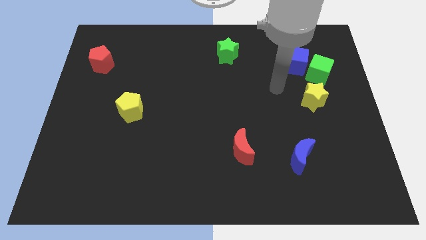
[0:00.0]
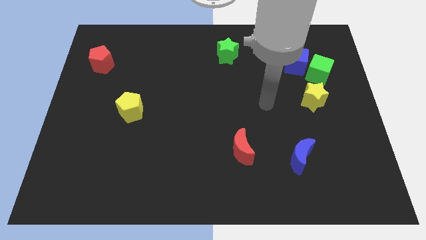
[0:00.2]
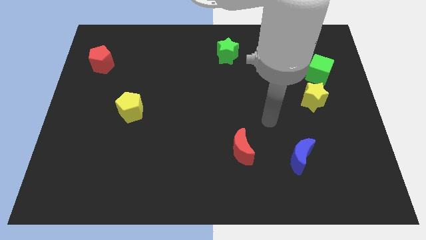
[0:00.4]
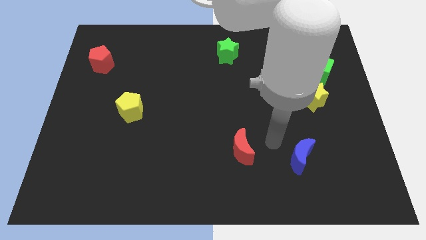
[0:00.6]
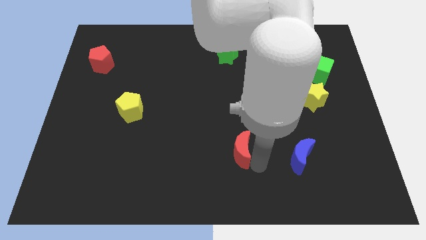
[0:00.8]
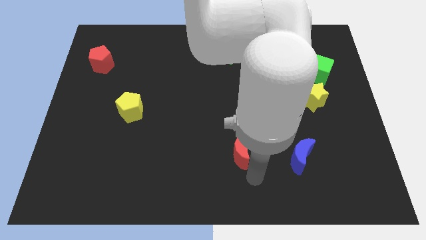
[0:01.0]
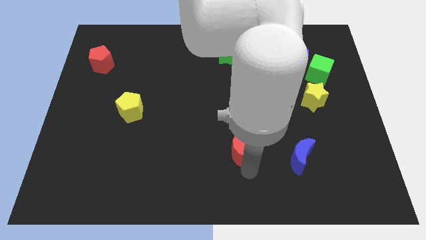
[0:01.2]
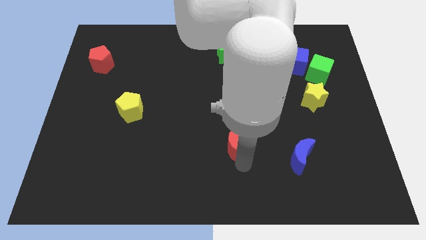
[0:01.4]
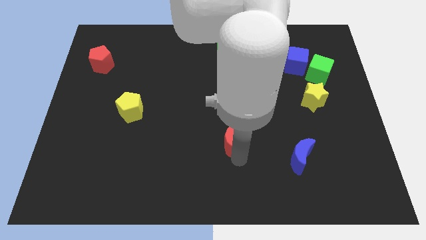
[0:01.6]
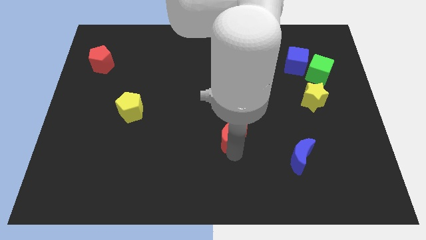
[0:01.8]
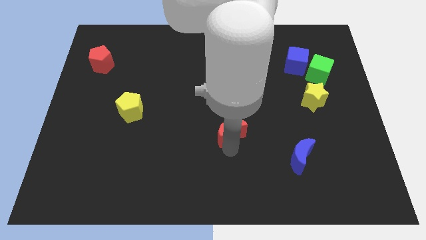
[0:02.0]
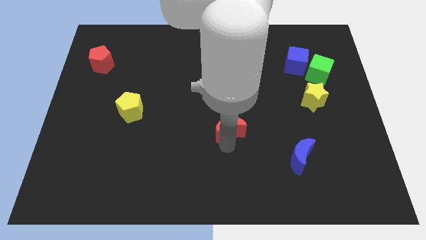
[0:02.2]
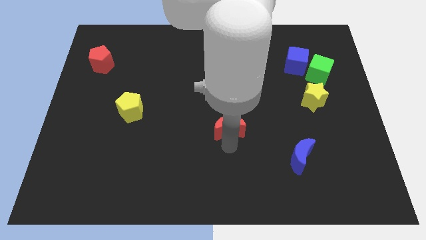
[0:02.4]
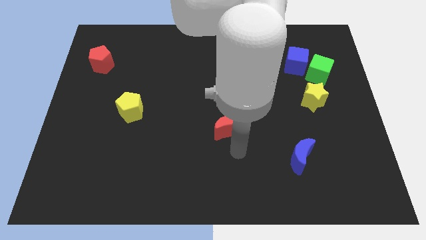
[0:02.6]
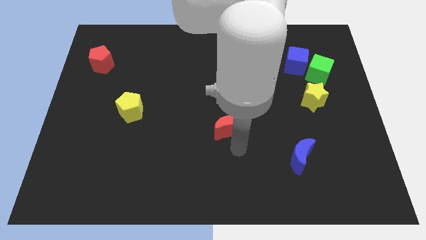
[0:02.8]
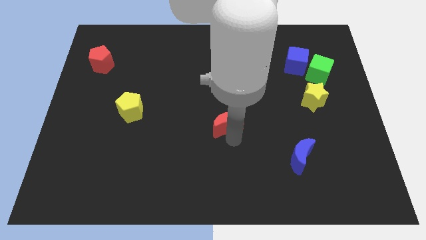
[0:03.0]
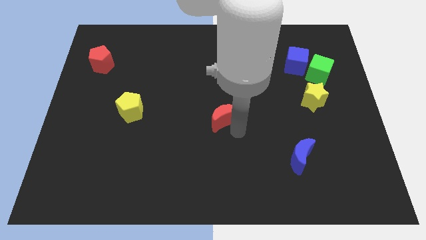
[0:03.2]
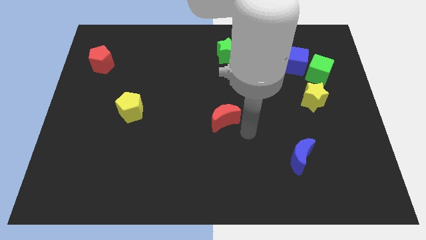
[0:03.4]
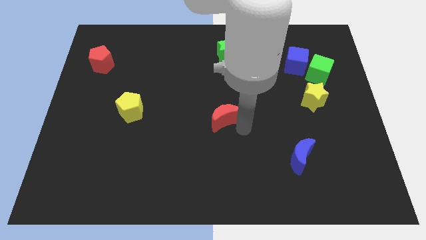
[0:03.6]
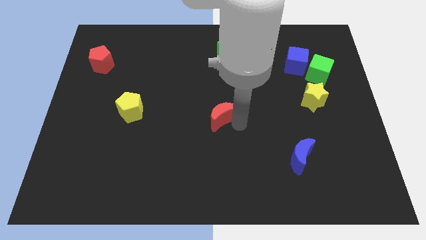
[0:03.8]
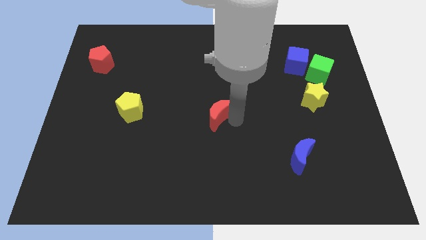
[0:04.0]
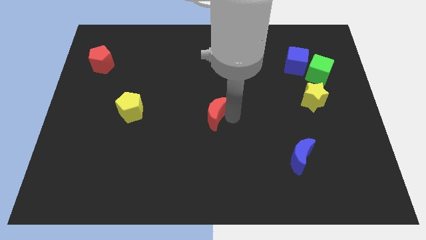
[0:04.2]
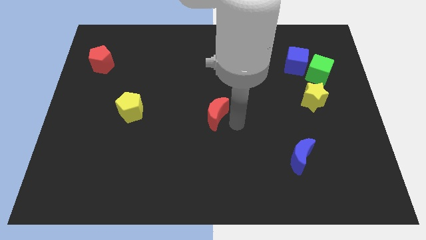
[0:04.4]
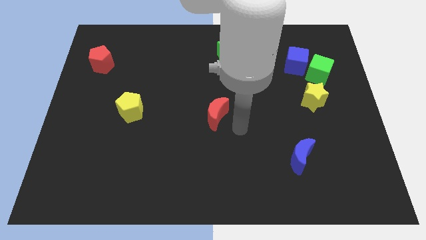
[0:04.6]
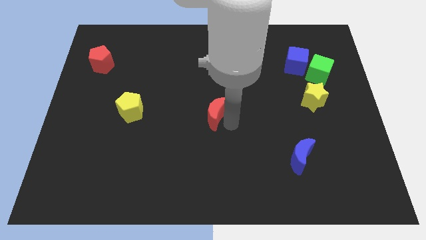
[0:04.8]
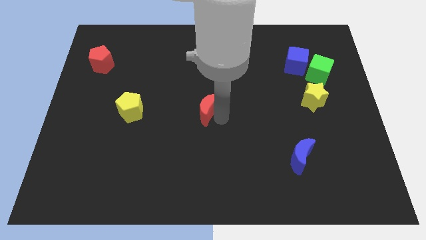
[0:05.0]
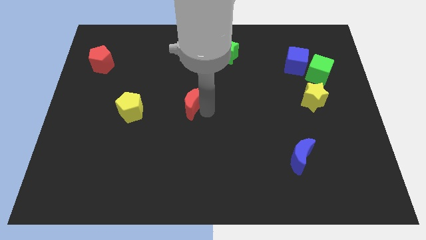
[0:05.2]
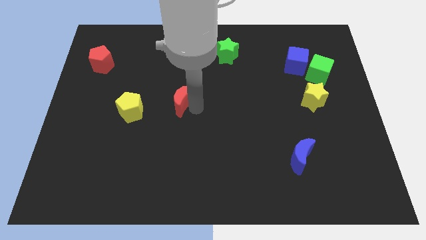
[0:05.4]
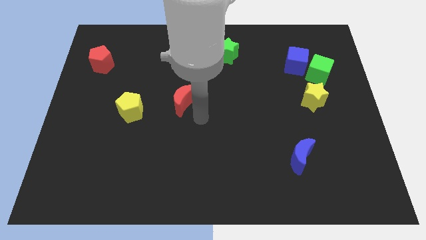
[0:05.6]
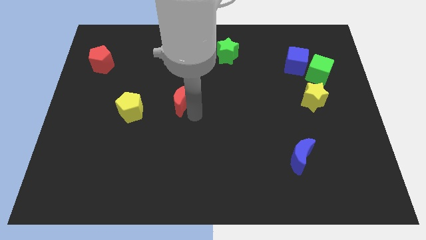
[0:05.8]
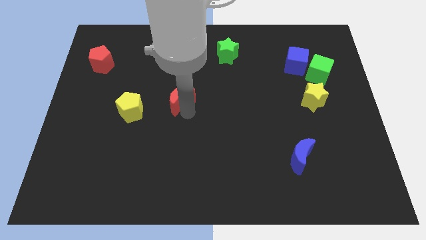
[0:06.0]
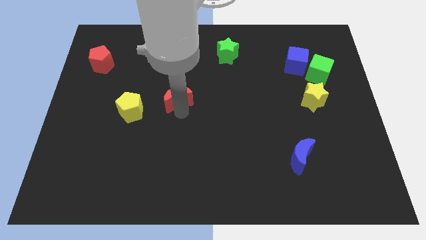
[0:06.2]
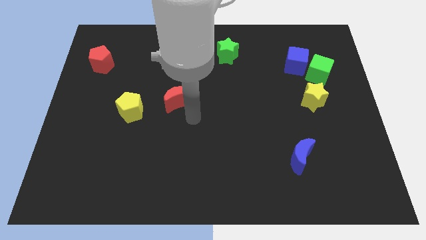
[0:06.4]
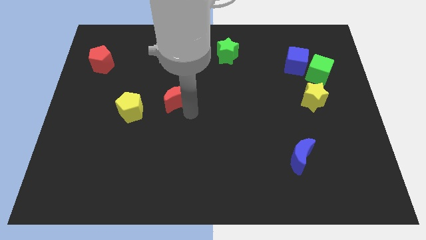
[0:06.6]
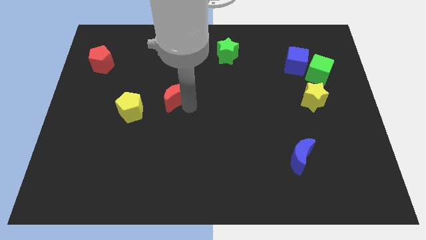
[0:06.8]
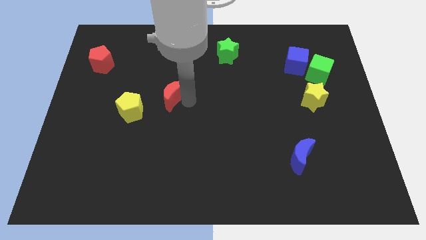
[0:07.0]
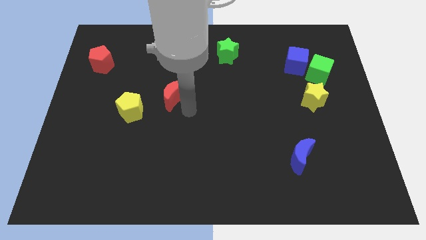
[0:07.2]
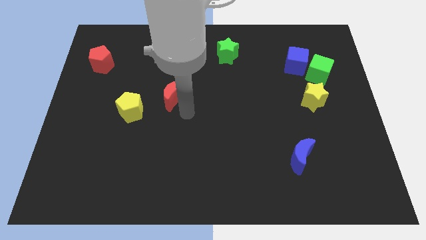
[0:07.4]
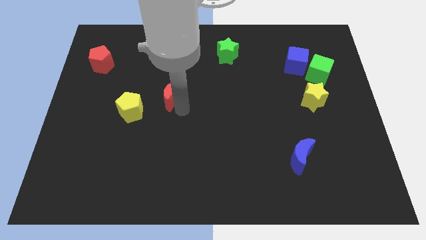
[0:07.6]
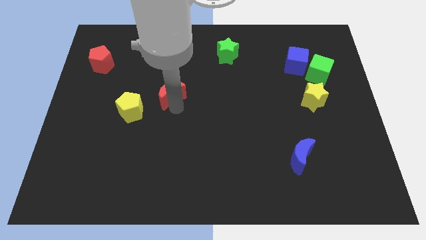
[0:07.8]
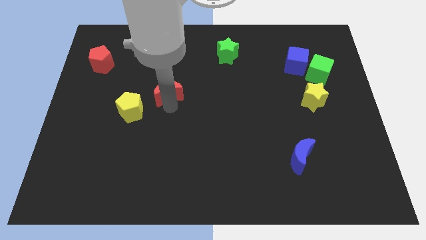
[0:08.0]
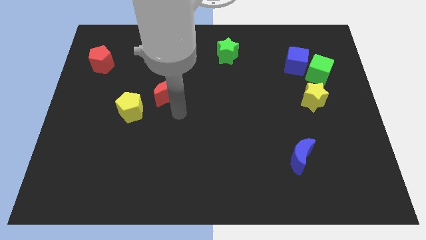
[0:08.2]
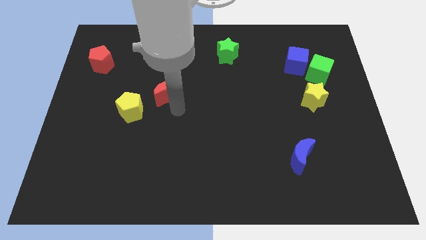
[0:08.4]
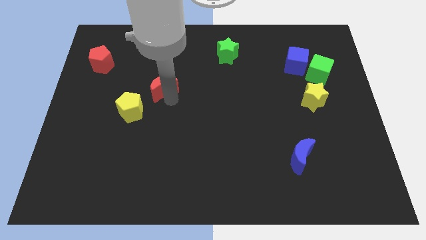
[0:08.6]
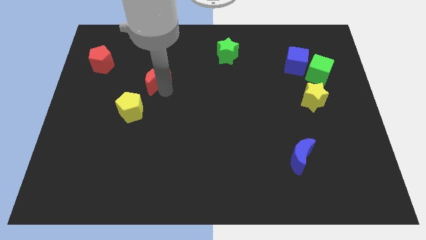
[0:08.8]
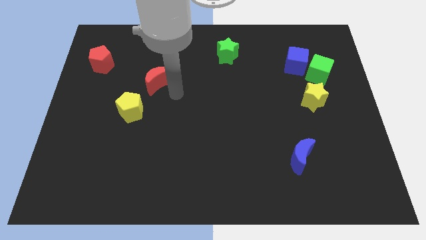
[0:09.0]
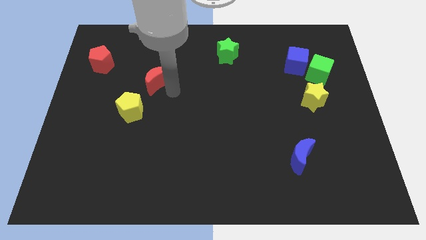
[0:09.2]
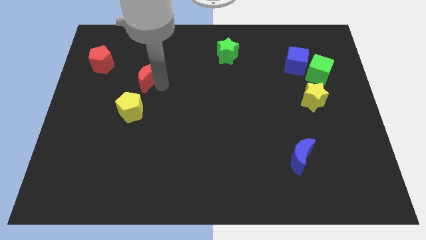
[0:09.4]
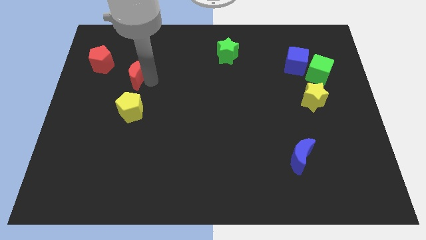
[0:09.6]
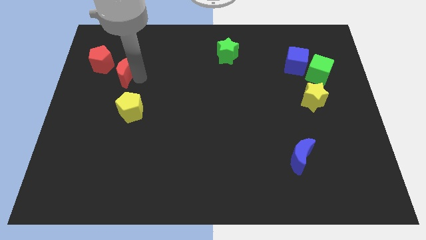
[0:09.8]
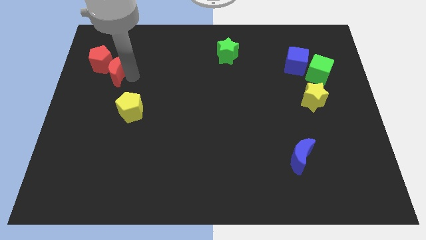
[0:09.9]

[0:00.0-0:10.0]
move the red moon towards the red pentagon
